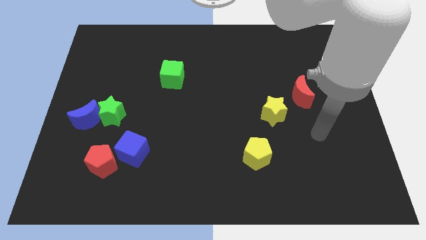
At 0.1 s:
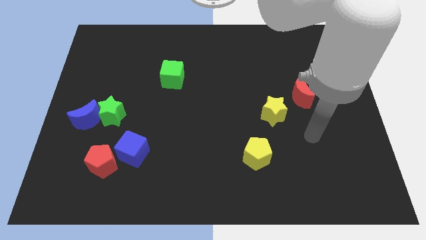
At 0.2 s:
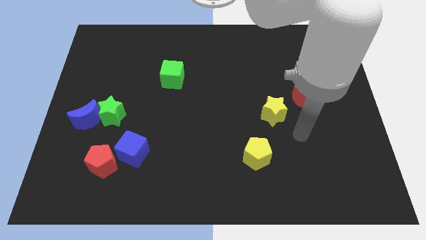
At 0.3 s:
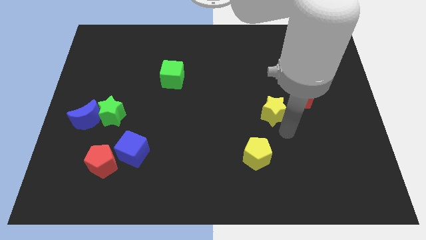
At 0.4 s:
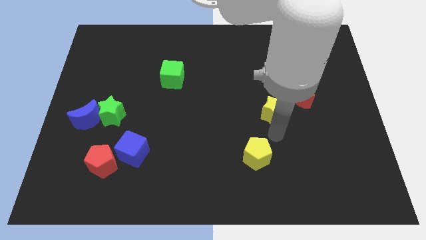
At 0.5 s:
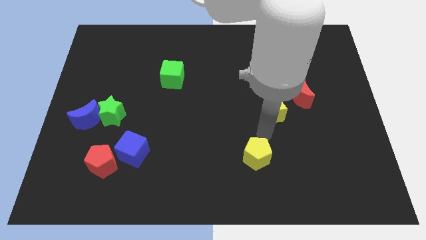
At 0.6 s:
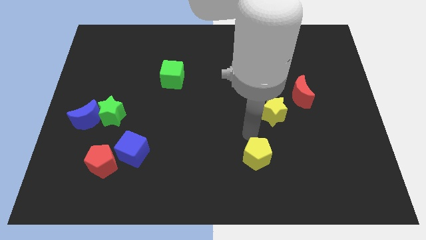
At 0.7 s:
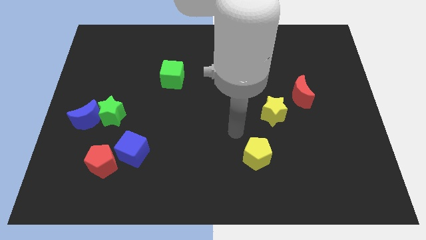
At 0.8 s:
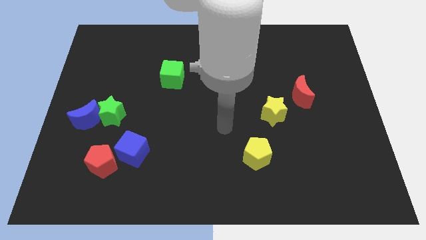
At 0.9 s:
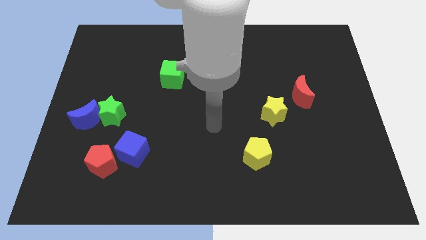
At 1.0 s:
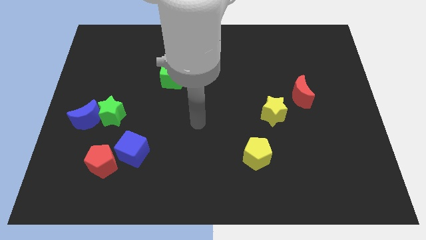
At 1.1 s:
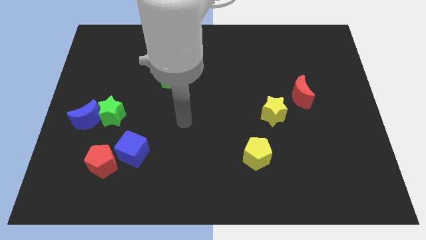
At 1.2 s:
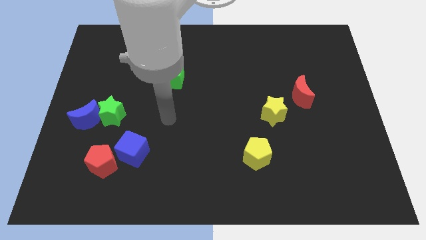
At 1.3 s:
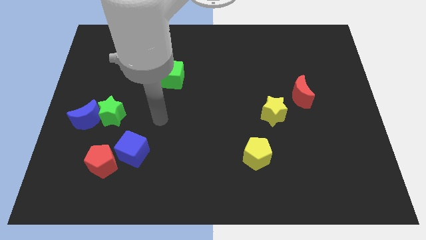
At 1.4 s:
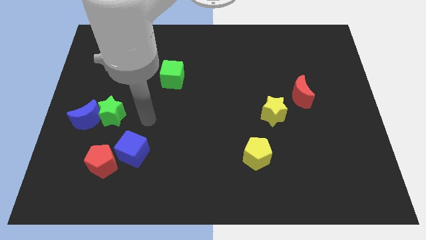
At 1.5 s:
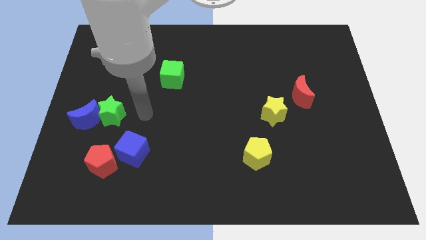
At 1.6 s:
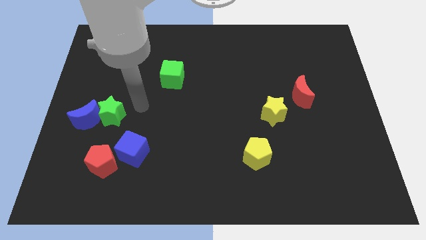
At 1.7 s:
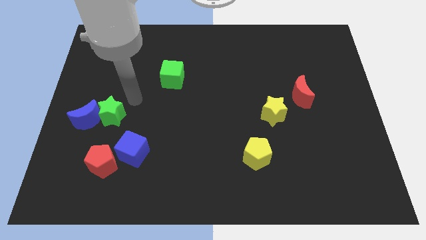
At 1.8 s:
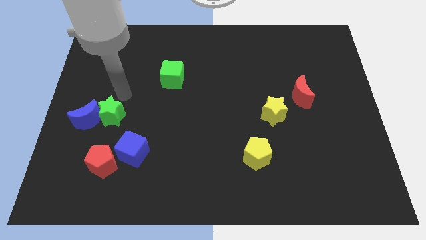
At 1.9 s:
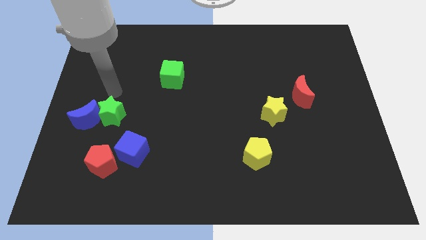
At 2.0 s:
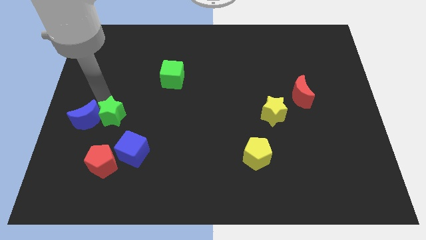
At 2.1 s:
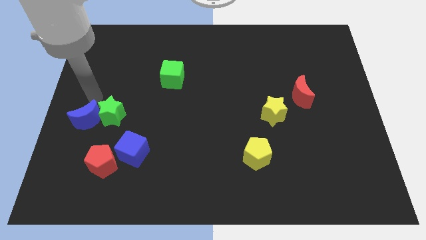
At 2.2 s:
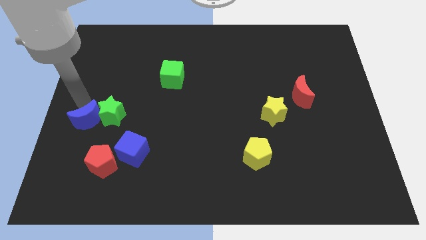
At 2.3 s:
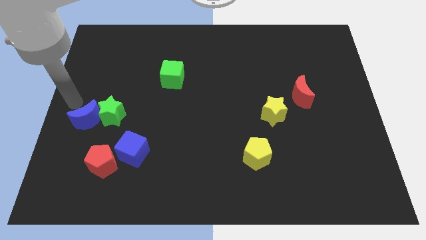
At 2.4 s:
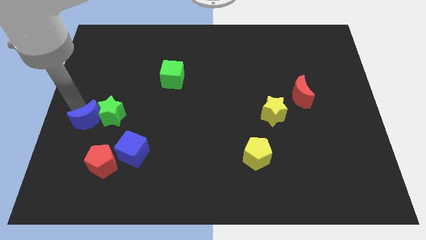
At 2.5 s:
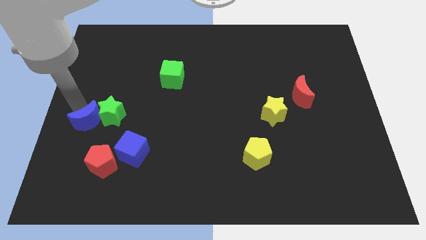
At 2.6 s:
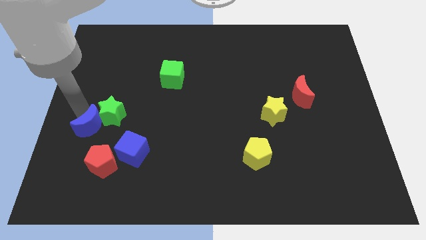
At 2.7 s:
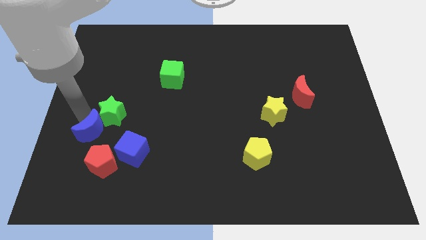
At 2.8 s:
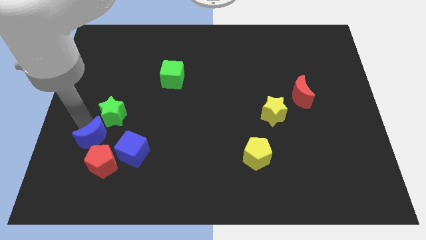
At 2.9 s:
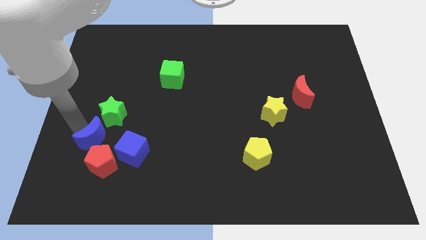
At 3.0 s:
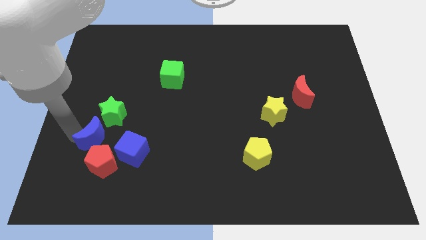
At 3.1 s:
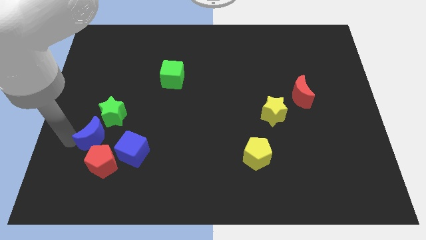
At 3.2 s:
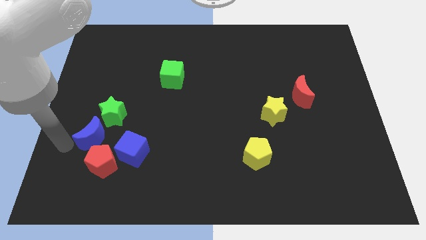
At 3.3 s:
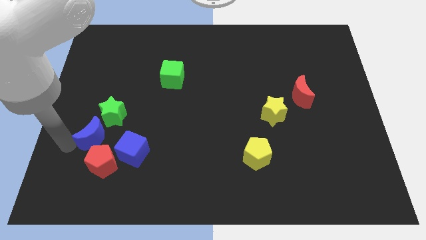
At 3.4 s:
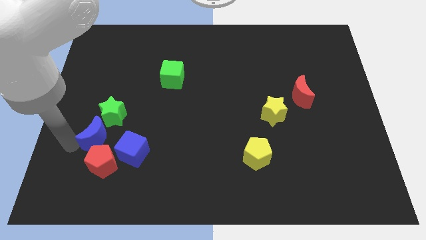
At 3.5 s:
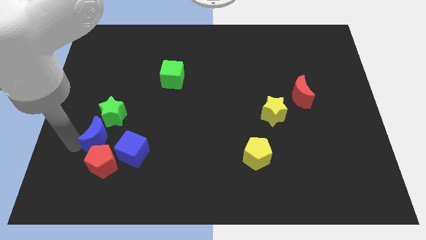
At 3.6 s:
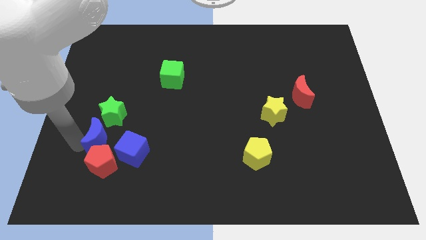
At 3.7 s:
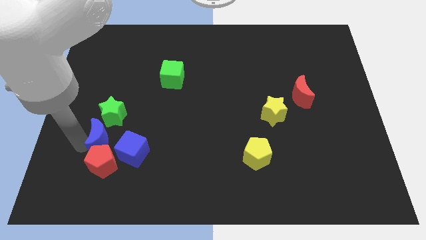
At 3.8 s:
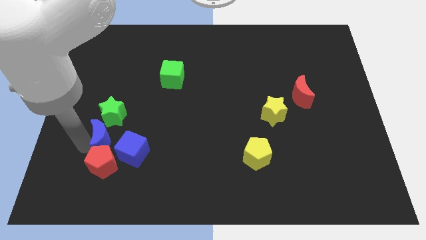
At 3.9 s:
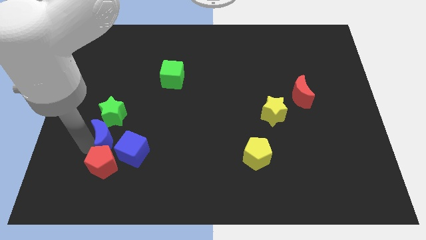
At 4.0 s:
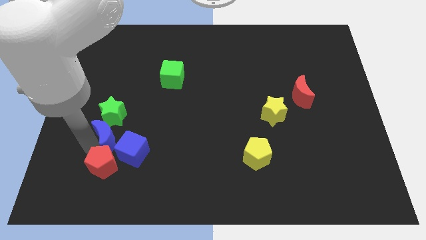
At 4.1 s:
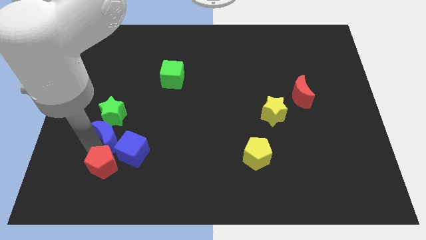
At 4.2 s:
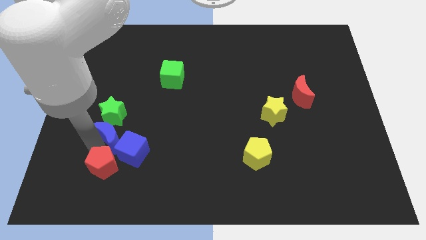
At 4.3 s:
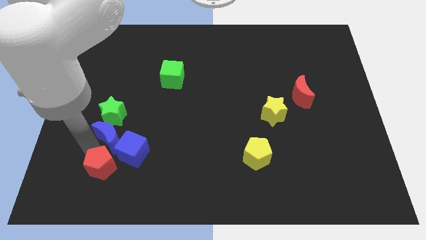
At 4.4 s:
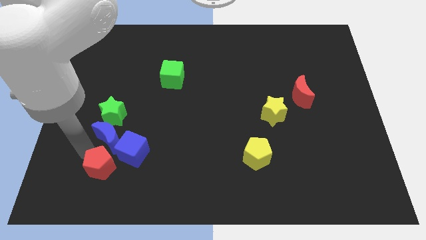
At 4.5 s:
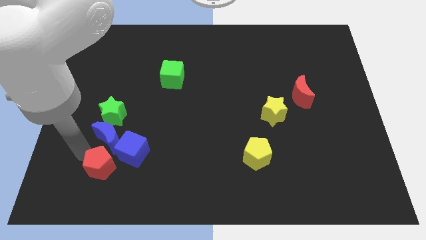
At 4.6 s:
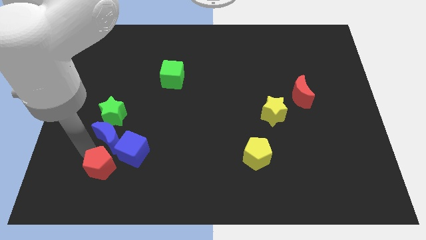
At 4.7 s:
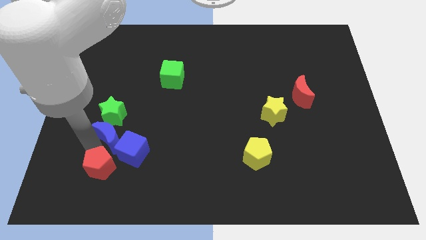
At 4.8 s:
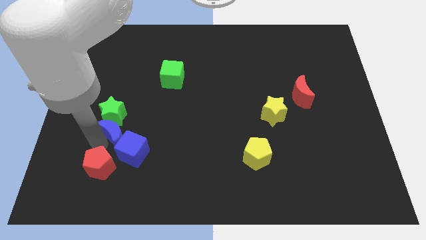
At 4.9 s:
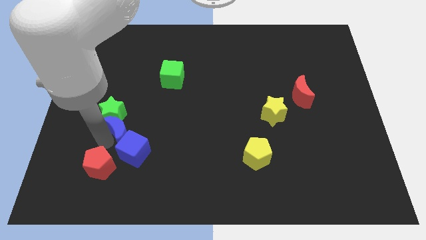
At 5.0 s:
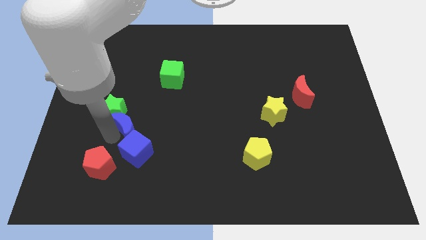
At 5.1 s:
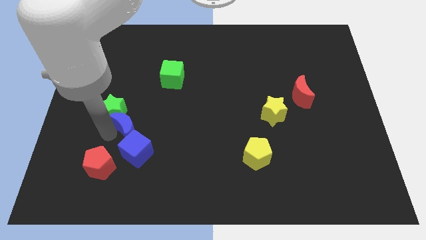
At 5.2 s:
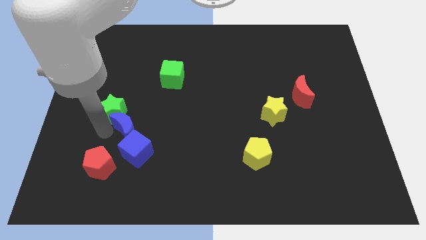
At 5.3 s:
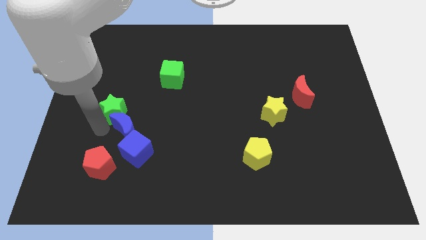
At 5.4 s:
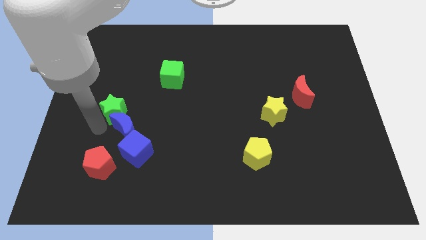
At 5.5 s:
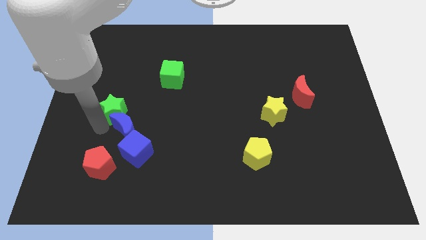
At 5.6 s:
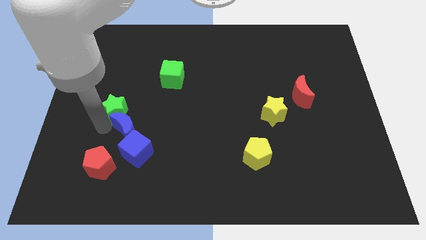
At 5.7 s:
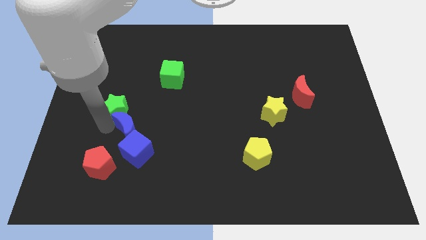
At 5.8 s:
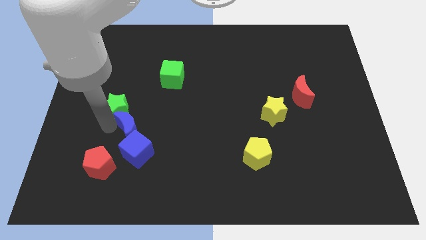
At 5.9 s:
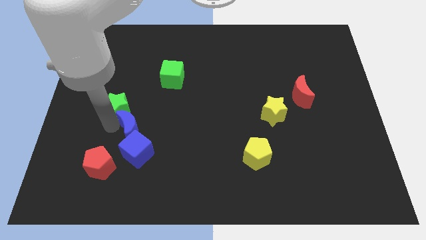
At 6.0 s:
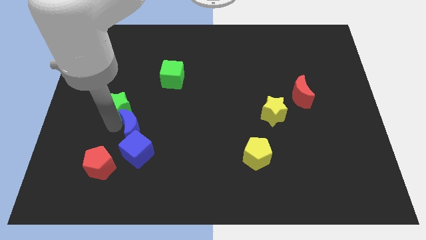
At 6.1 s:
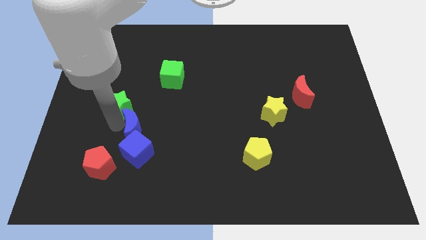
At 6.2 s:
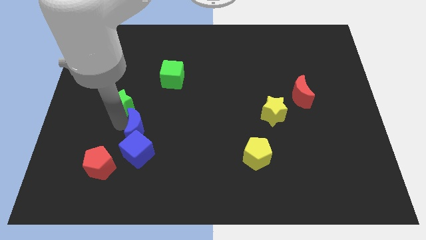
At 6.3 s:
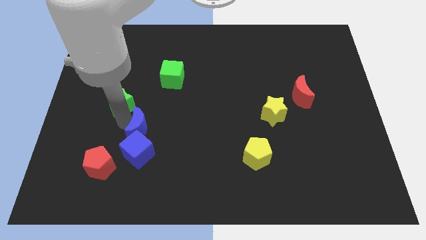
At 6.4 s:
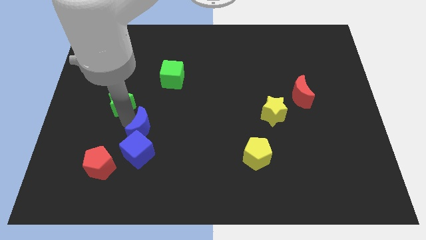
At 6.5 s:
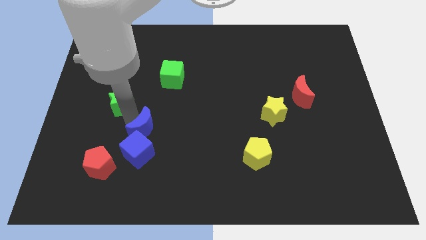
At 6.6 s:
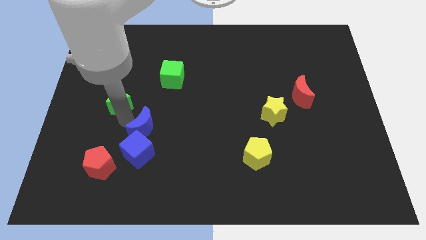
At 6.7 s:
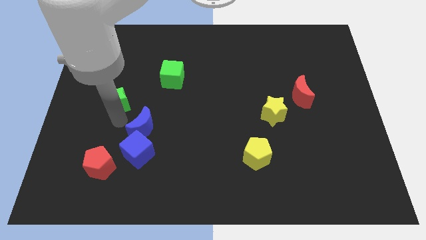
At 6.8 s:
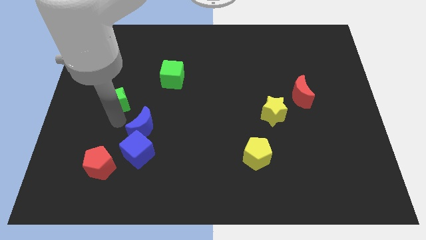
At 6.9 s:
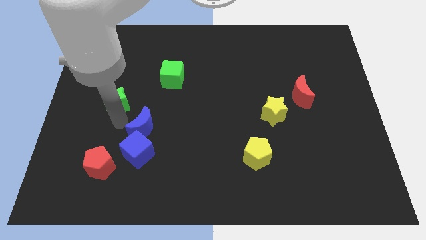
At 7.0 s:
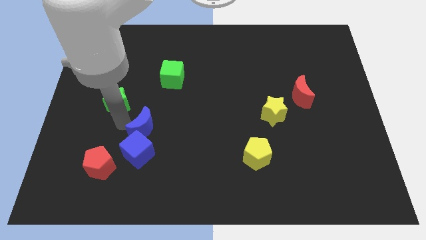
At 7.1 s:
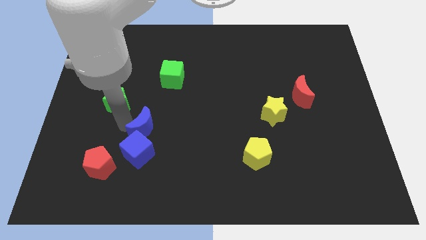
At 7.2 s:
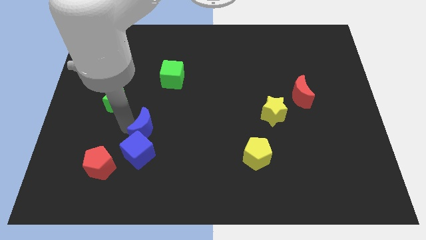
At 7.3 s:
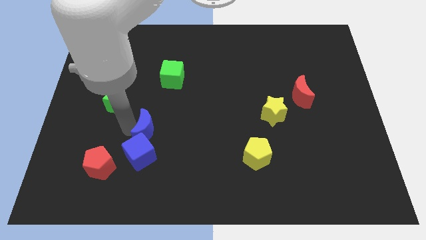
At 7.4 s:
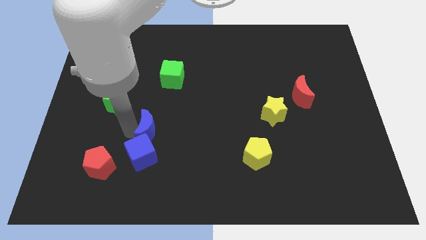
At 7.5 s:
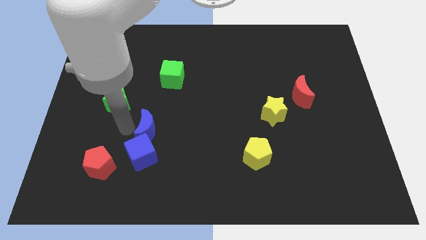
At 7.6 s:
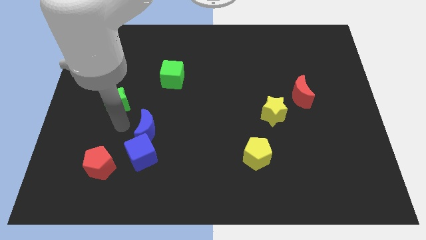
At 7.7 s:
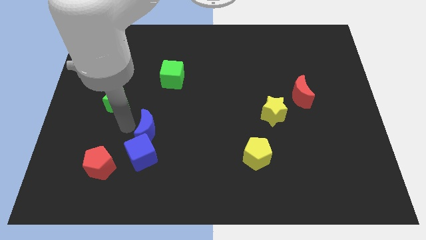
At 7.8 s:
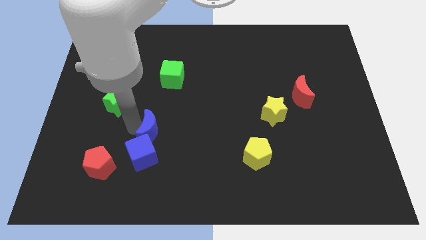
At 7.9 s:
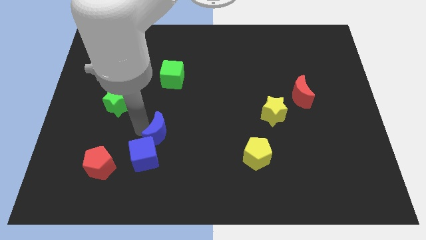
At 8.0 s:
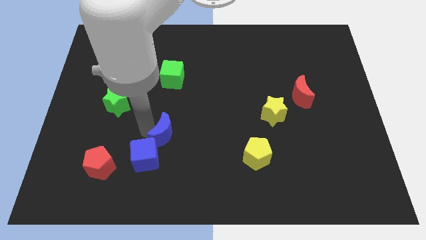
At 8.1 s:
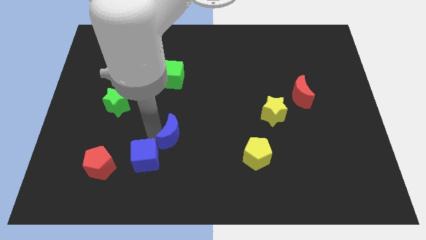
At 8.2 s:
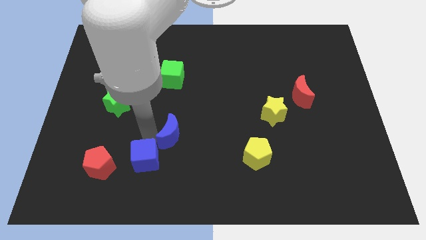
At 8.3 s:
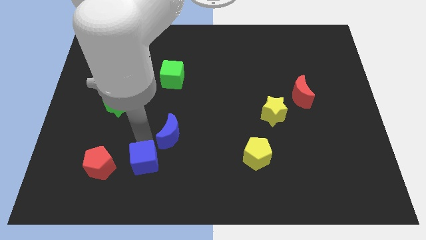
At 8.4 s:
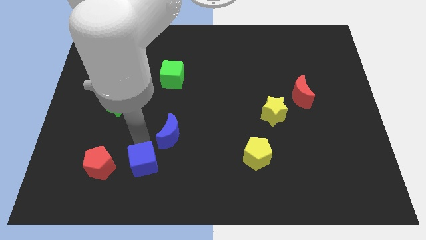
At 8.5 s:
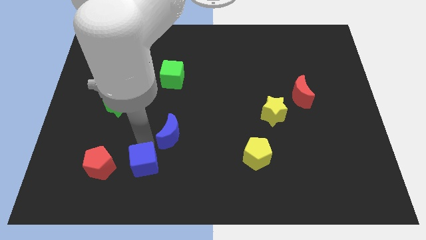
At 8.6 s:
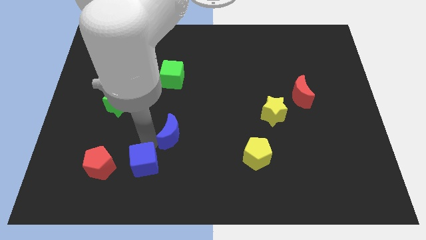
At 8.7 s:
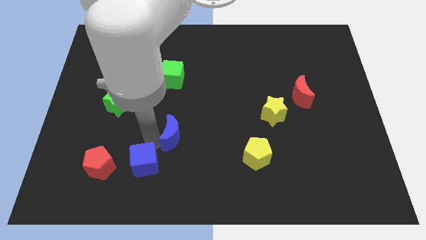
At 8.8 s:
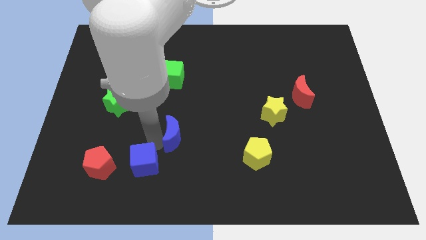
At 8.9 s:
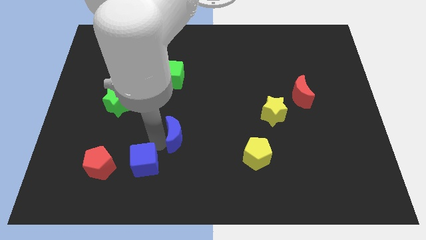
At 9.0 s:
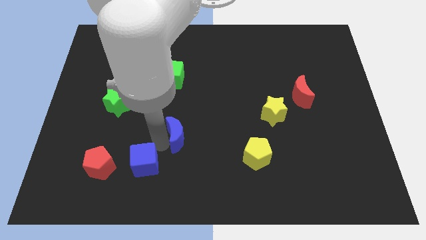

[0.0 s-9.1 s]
slide the blue moon right
